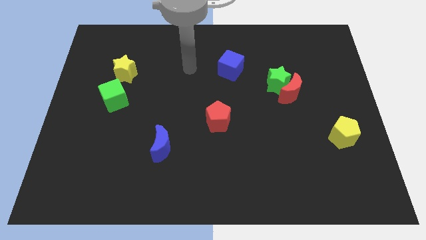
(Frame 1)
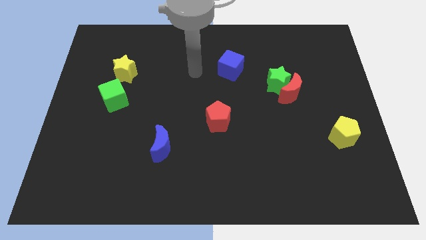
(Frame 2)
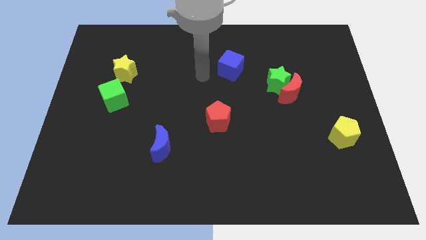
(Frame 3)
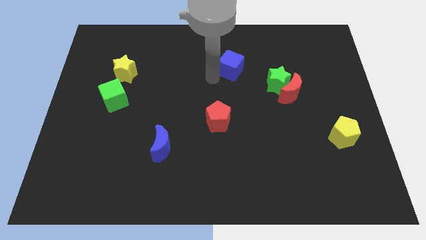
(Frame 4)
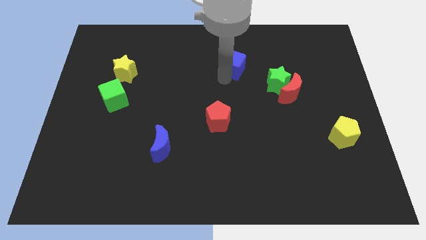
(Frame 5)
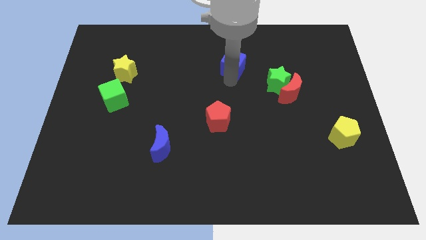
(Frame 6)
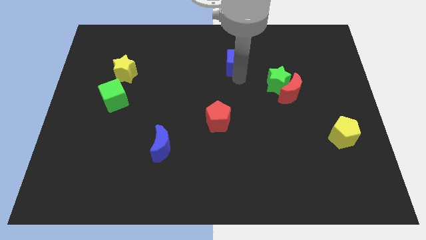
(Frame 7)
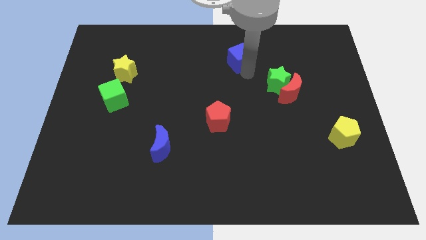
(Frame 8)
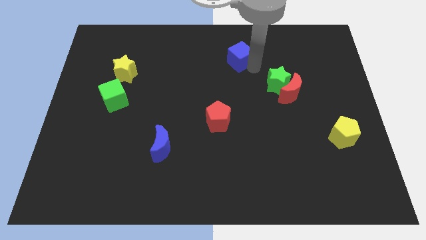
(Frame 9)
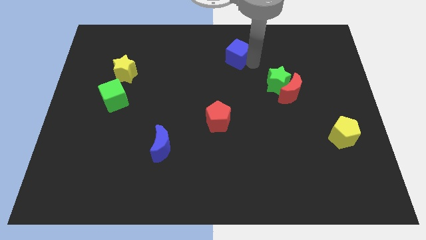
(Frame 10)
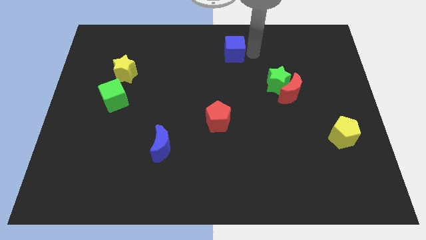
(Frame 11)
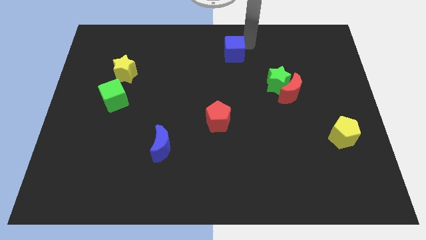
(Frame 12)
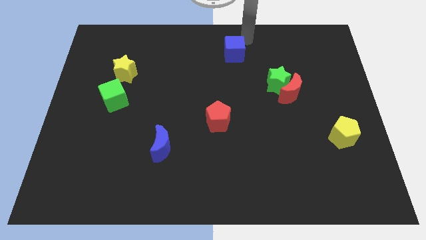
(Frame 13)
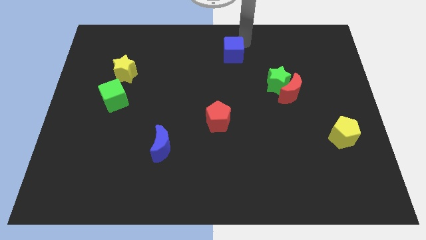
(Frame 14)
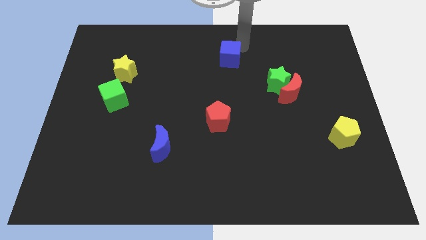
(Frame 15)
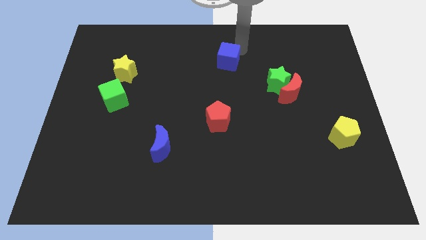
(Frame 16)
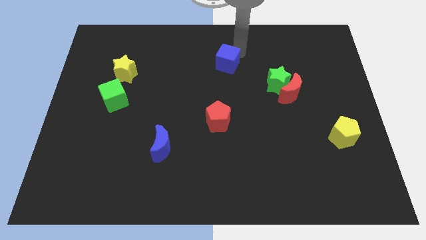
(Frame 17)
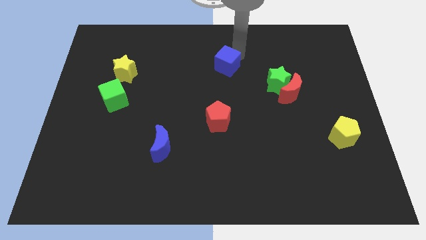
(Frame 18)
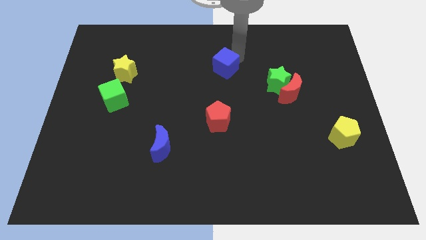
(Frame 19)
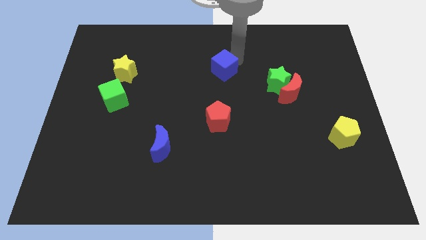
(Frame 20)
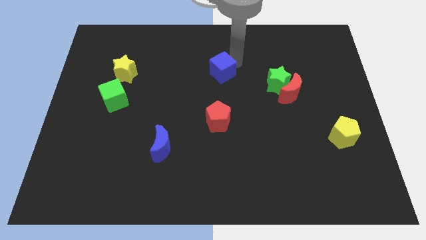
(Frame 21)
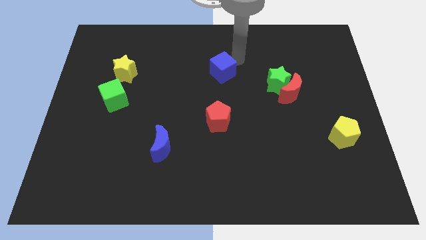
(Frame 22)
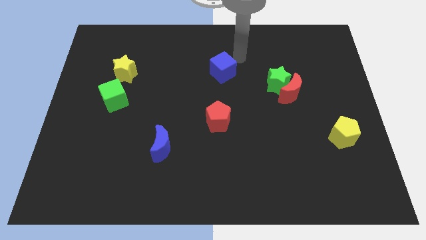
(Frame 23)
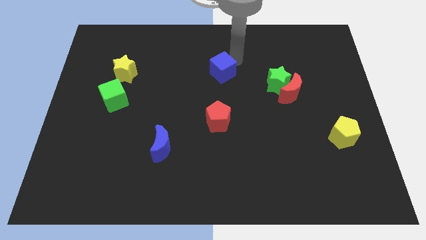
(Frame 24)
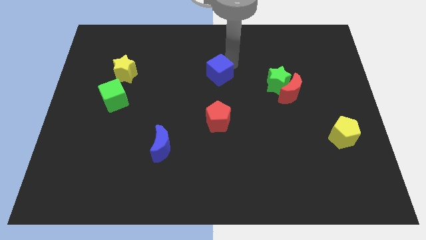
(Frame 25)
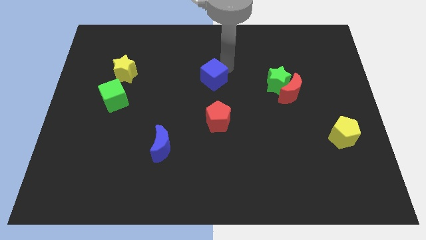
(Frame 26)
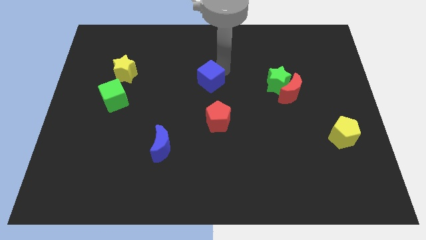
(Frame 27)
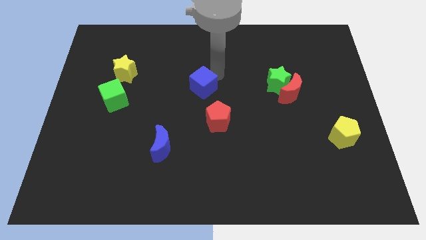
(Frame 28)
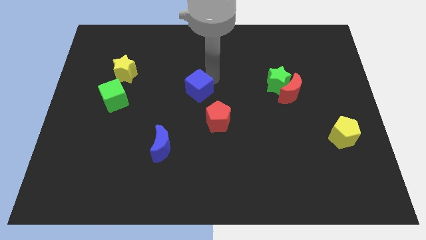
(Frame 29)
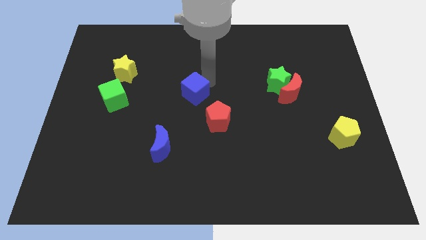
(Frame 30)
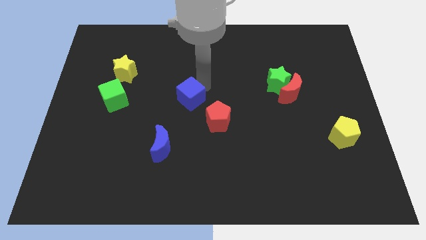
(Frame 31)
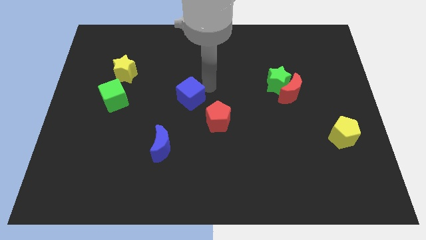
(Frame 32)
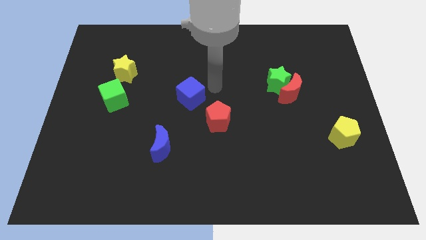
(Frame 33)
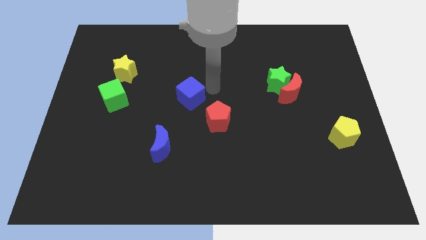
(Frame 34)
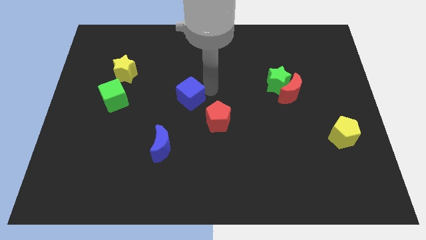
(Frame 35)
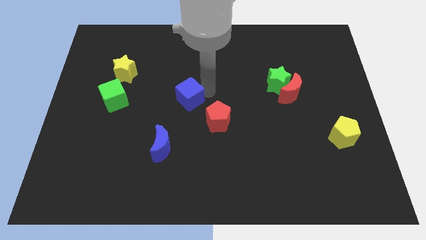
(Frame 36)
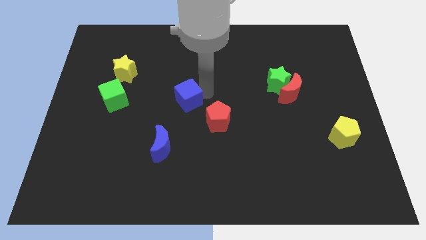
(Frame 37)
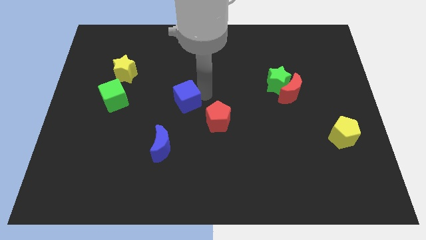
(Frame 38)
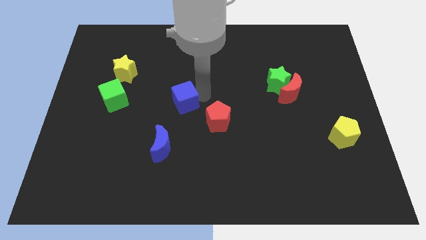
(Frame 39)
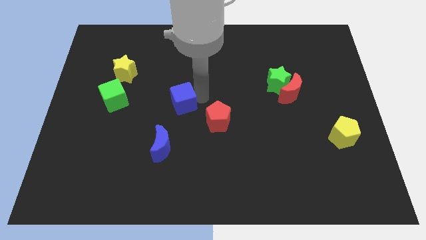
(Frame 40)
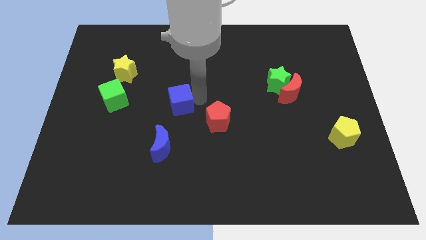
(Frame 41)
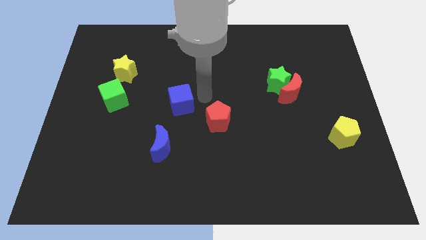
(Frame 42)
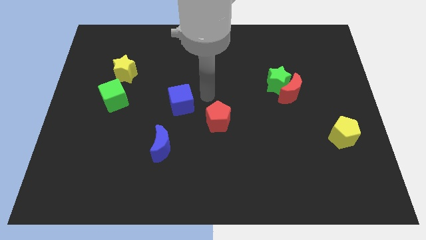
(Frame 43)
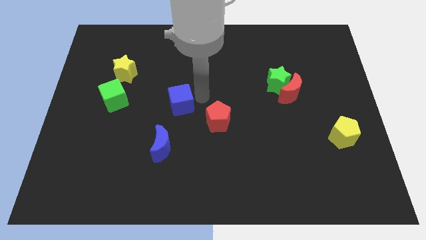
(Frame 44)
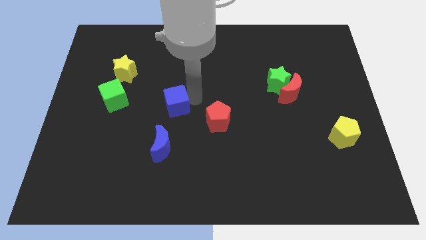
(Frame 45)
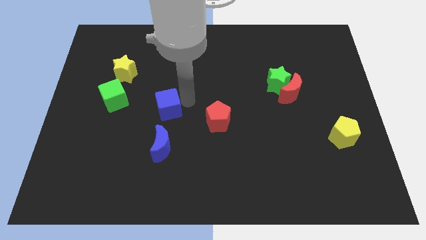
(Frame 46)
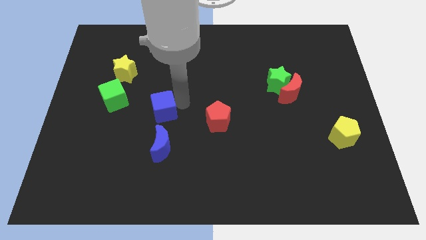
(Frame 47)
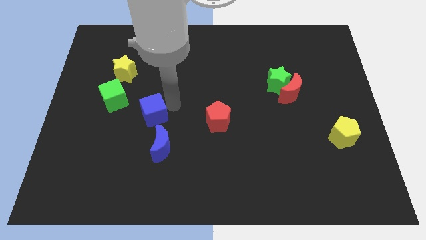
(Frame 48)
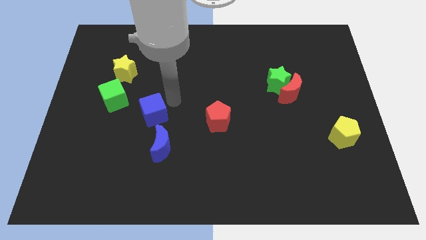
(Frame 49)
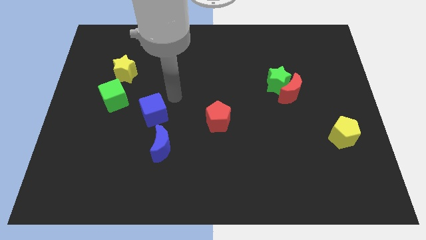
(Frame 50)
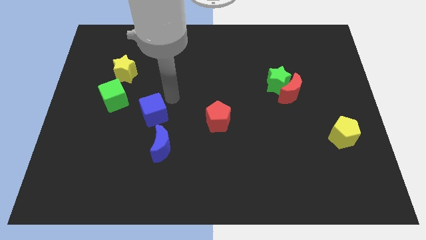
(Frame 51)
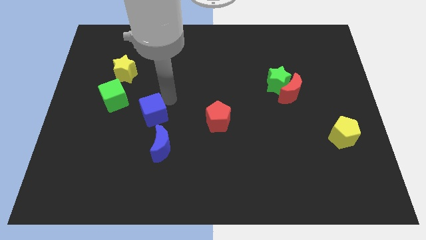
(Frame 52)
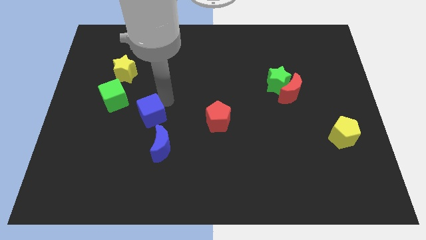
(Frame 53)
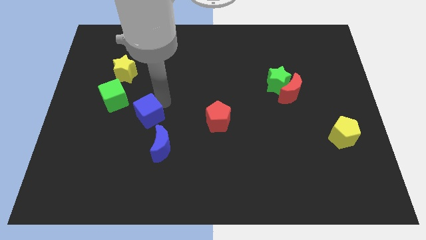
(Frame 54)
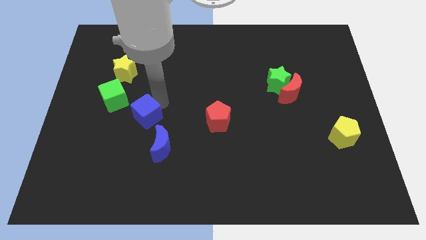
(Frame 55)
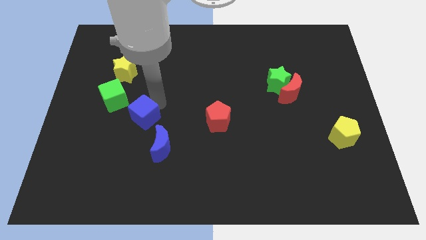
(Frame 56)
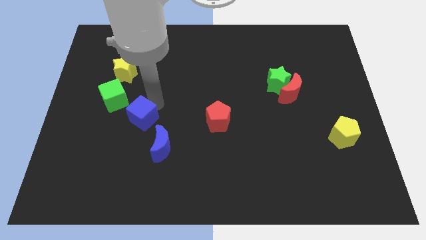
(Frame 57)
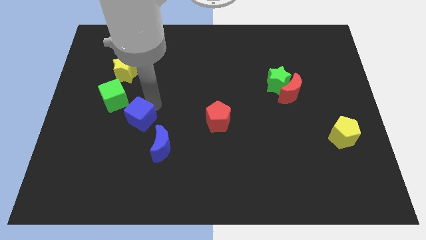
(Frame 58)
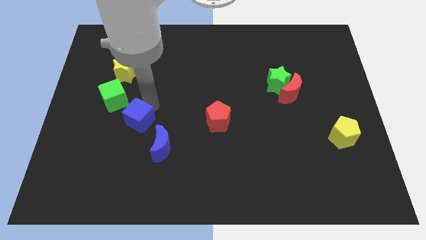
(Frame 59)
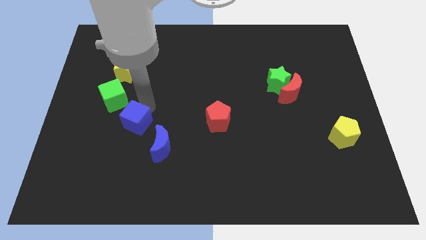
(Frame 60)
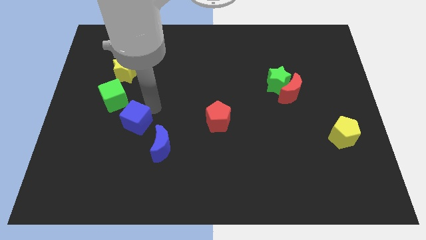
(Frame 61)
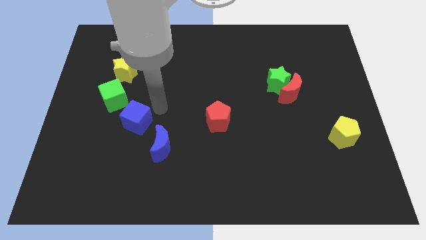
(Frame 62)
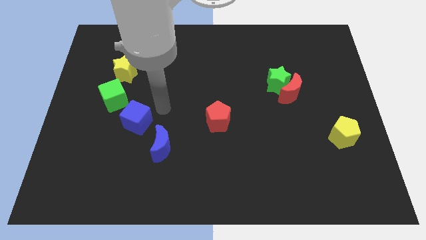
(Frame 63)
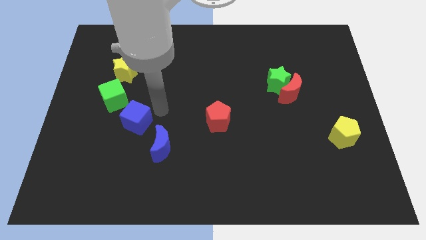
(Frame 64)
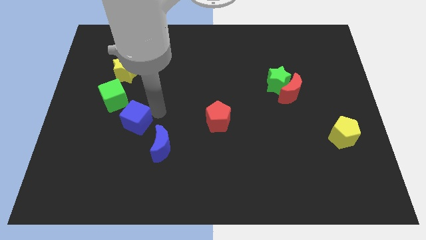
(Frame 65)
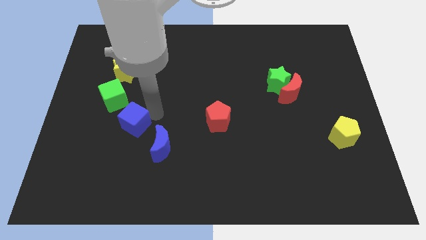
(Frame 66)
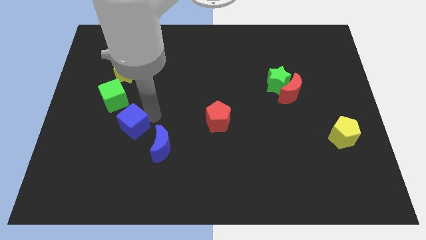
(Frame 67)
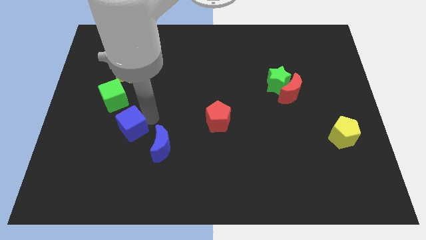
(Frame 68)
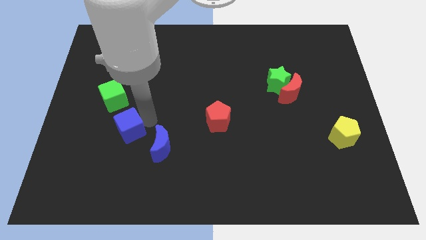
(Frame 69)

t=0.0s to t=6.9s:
push the blue cube below the green cube

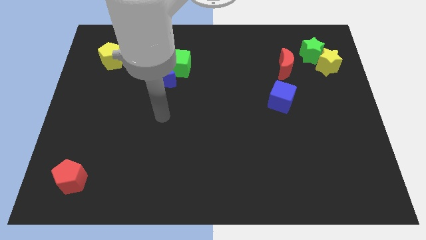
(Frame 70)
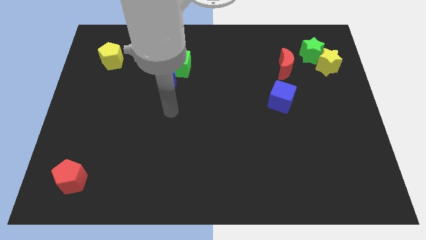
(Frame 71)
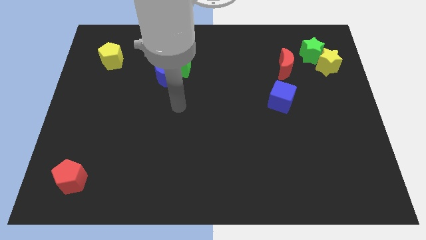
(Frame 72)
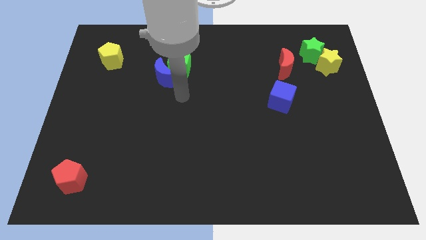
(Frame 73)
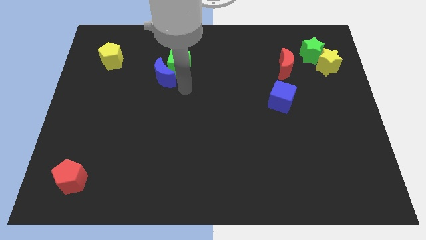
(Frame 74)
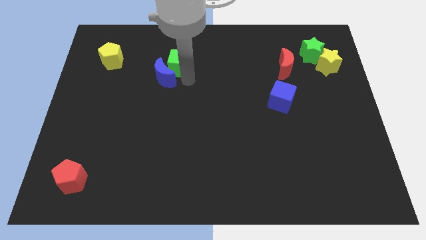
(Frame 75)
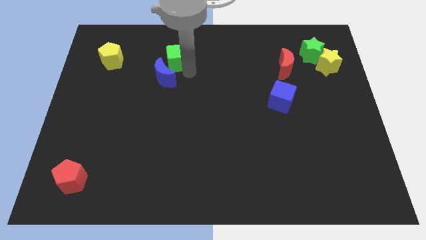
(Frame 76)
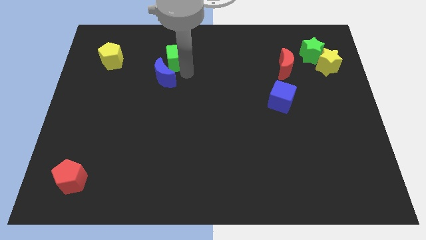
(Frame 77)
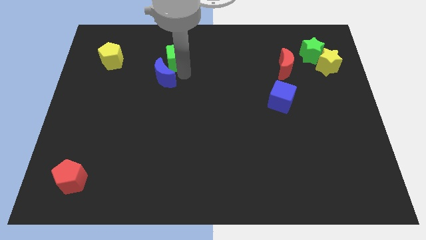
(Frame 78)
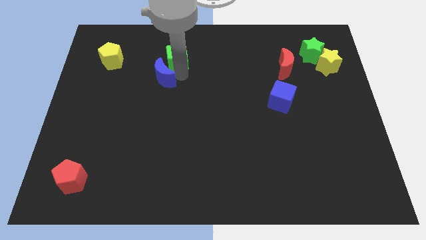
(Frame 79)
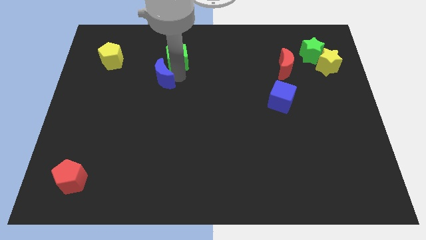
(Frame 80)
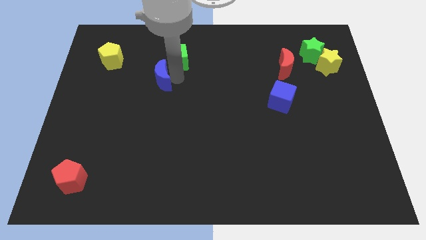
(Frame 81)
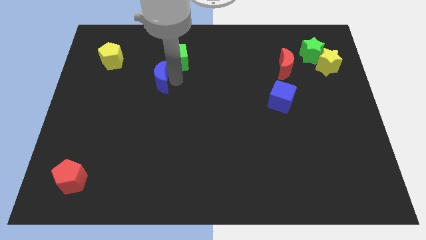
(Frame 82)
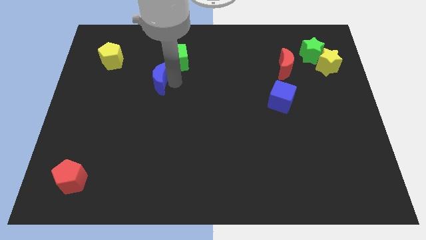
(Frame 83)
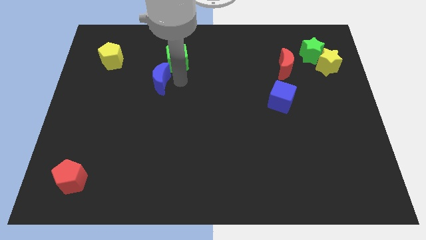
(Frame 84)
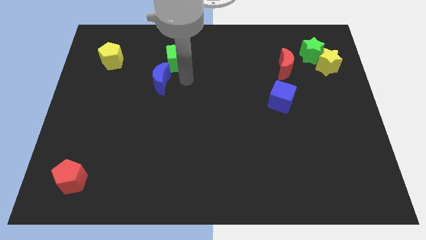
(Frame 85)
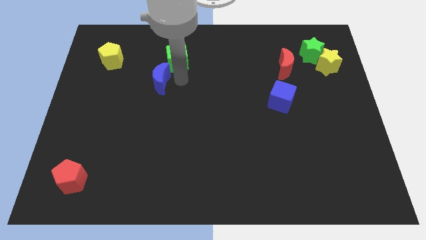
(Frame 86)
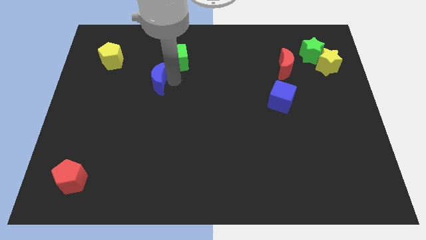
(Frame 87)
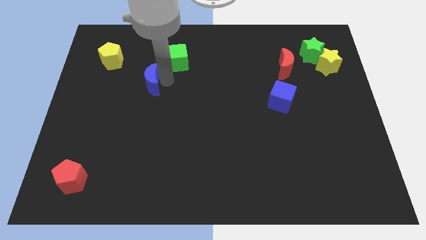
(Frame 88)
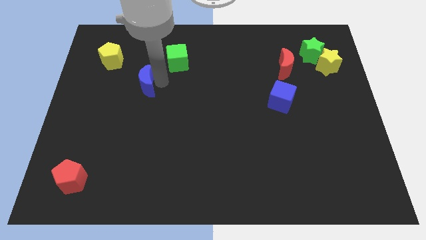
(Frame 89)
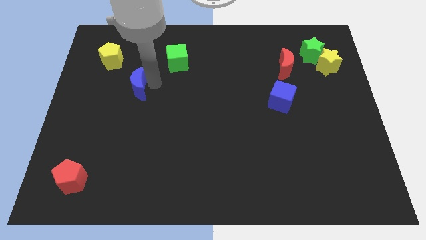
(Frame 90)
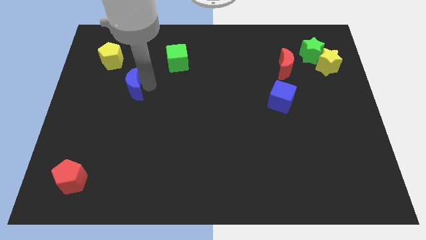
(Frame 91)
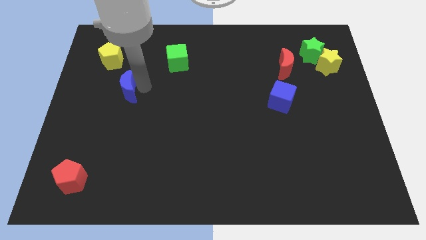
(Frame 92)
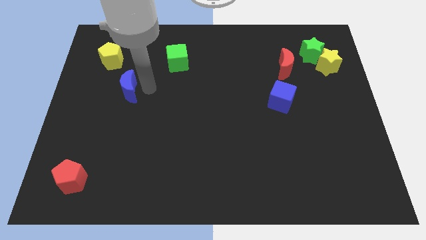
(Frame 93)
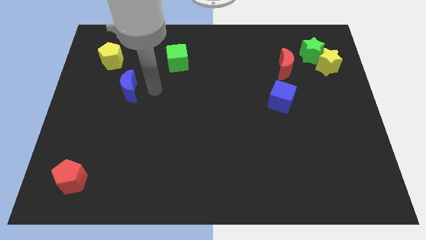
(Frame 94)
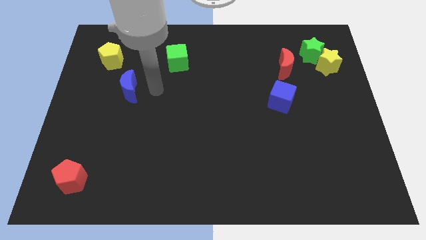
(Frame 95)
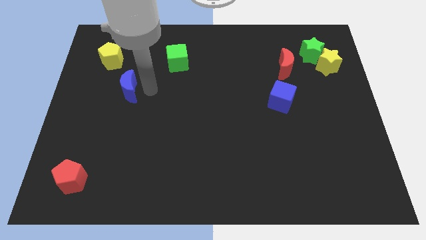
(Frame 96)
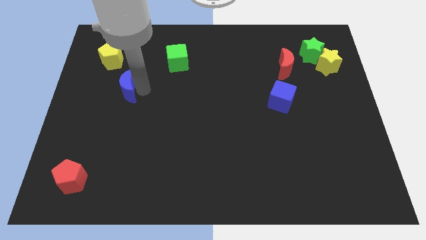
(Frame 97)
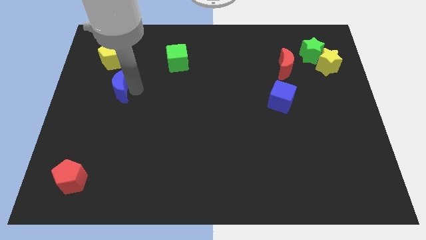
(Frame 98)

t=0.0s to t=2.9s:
push the blue moon below the yellow pentagon
